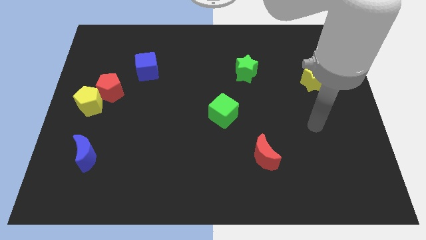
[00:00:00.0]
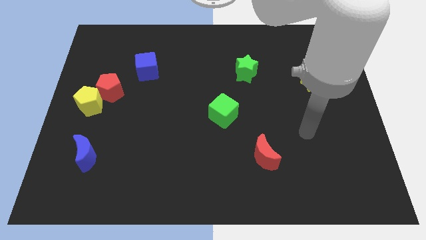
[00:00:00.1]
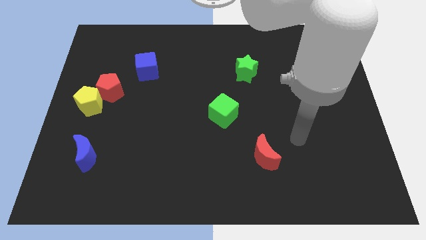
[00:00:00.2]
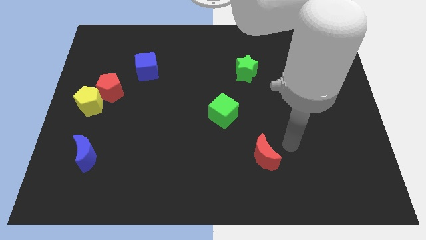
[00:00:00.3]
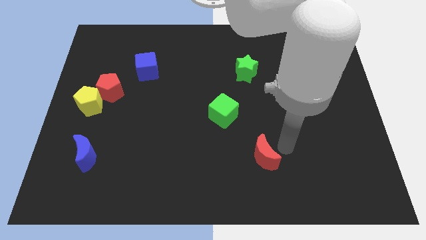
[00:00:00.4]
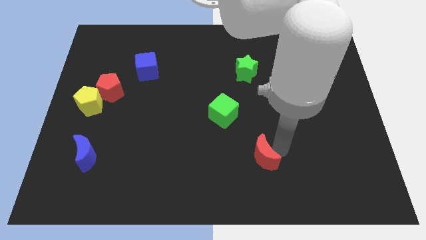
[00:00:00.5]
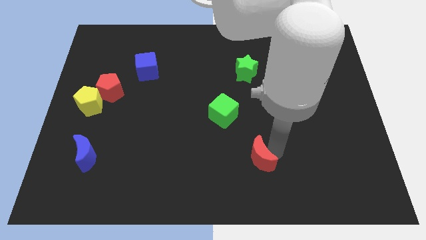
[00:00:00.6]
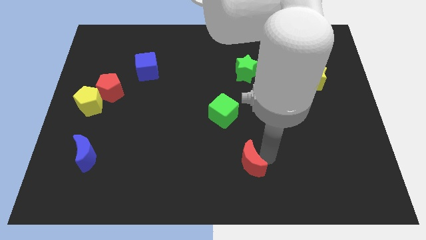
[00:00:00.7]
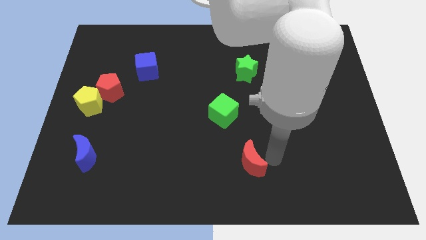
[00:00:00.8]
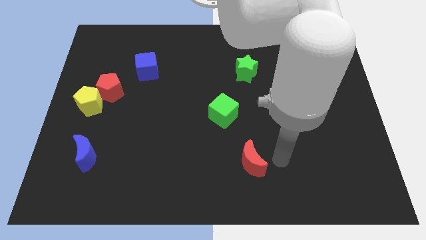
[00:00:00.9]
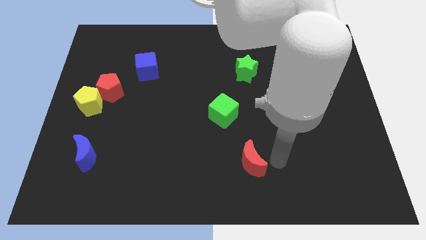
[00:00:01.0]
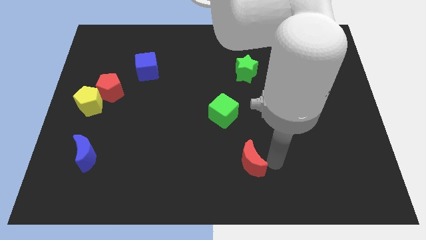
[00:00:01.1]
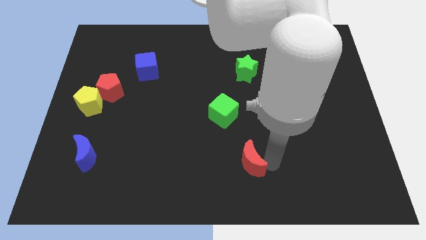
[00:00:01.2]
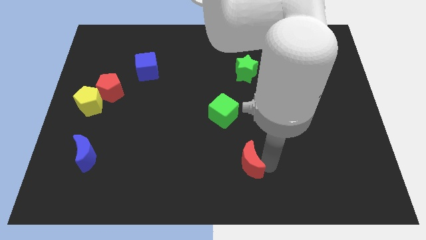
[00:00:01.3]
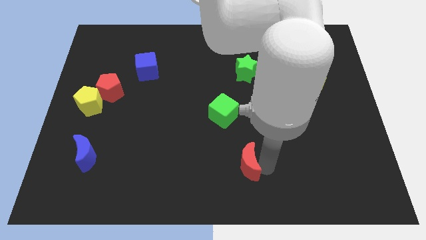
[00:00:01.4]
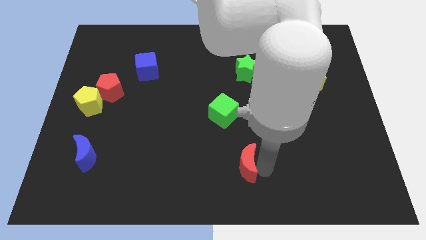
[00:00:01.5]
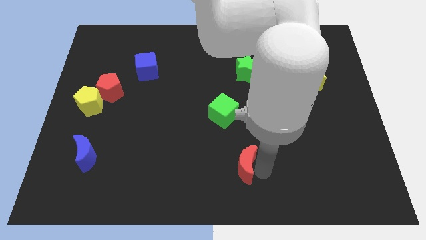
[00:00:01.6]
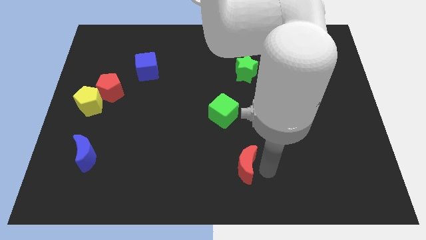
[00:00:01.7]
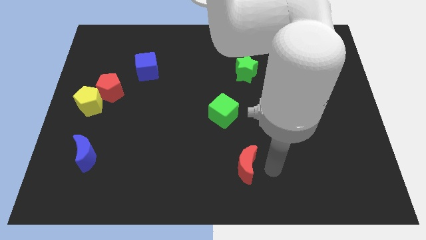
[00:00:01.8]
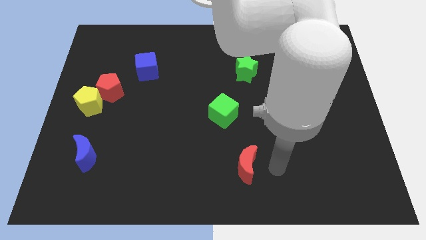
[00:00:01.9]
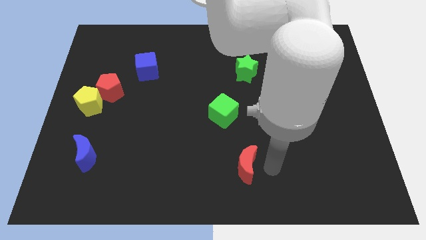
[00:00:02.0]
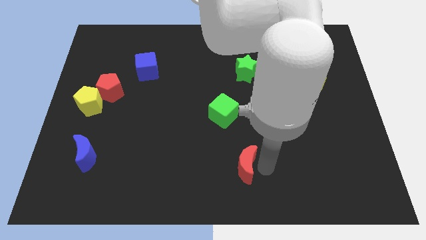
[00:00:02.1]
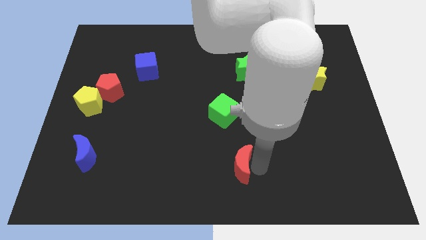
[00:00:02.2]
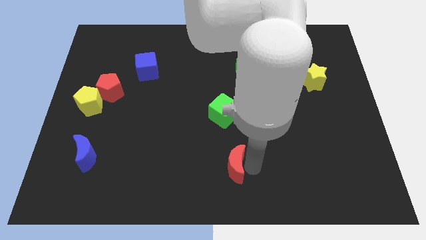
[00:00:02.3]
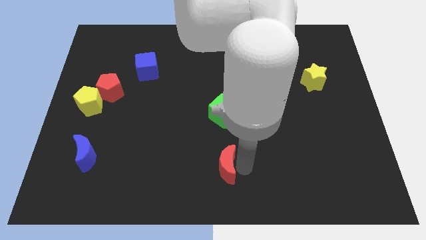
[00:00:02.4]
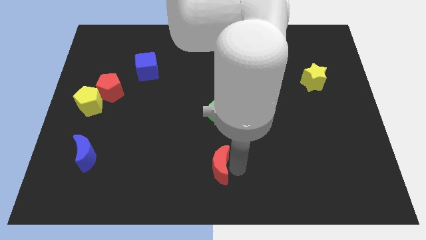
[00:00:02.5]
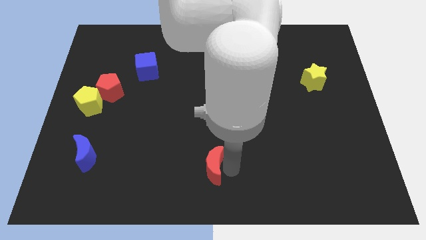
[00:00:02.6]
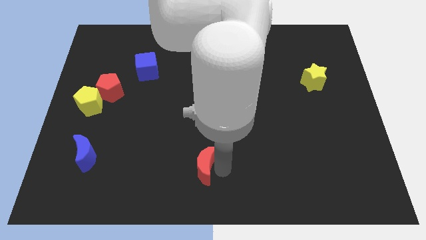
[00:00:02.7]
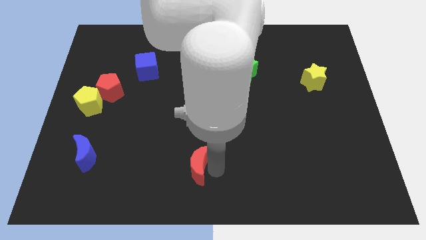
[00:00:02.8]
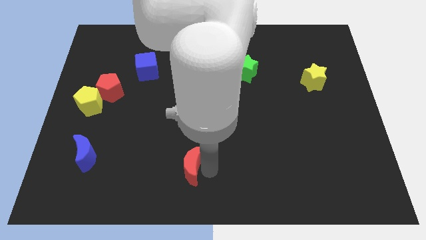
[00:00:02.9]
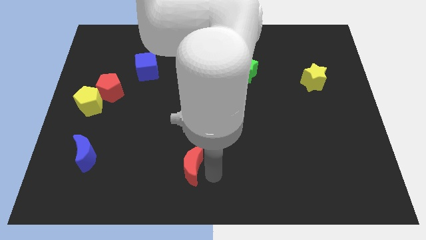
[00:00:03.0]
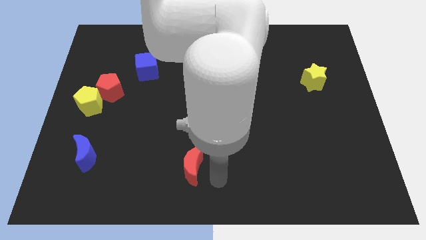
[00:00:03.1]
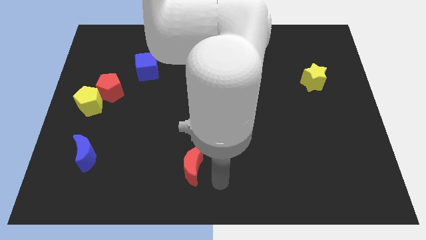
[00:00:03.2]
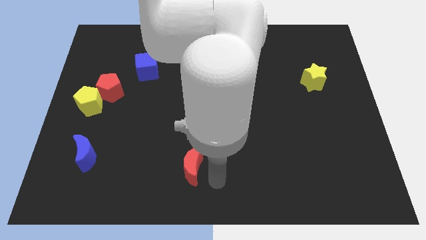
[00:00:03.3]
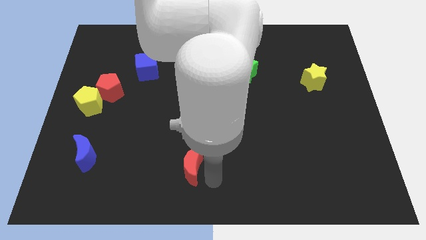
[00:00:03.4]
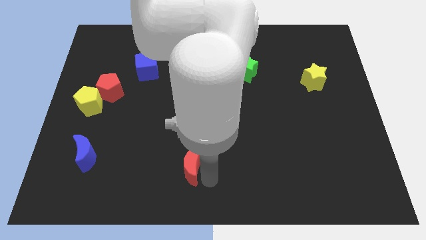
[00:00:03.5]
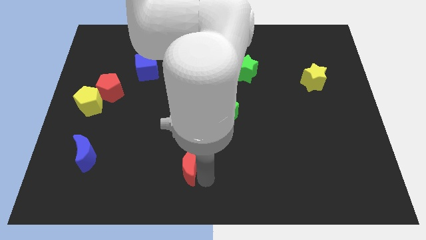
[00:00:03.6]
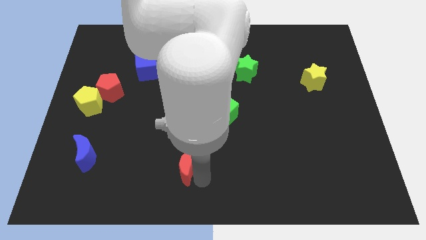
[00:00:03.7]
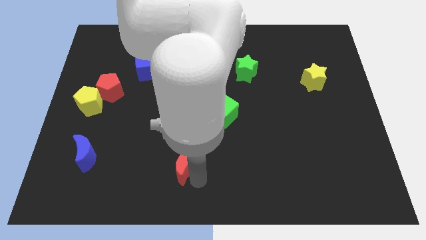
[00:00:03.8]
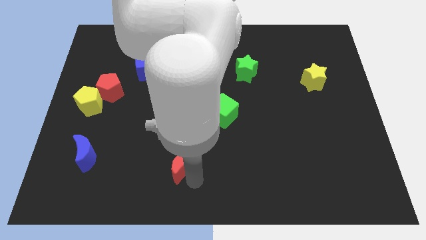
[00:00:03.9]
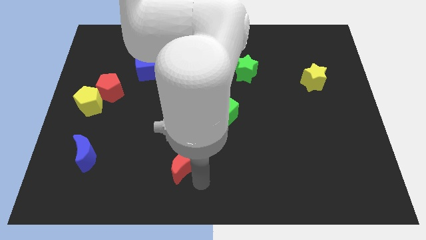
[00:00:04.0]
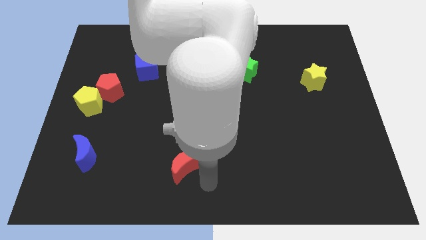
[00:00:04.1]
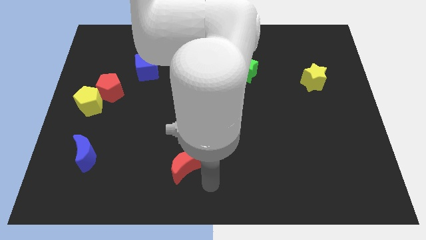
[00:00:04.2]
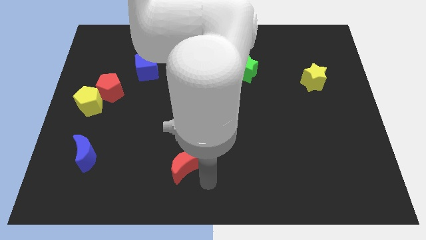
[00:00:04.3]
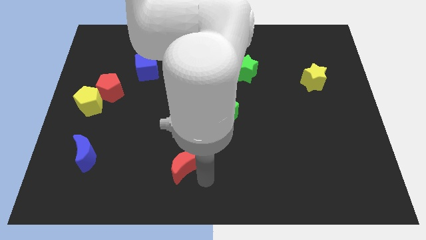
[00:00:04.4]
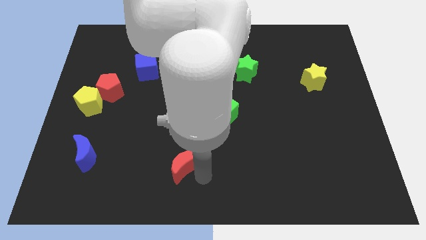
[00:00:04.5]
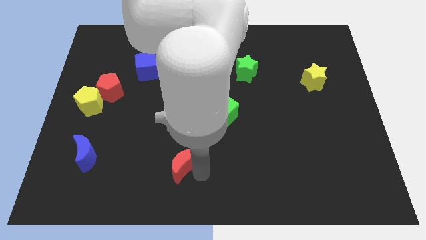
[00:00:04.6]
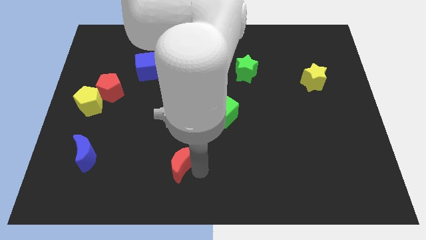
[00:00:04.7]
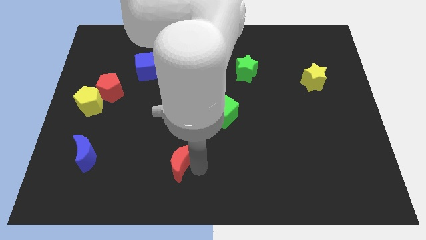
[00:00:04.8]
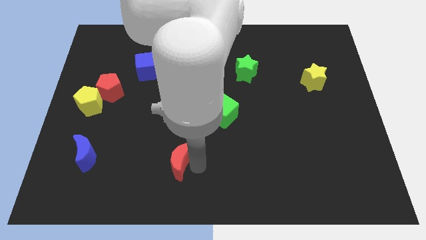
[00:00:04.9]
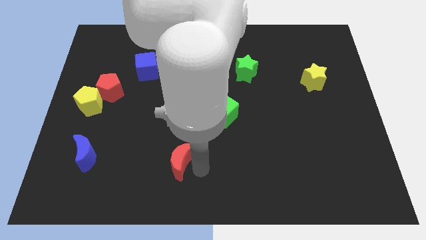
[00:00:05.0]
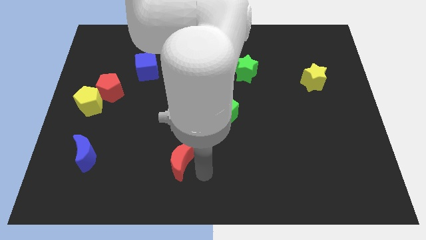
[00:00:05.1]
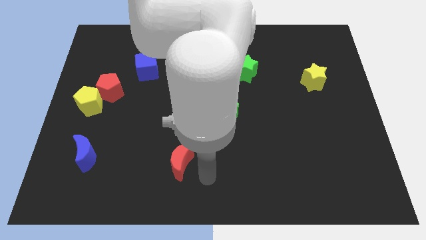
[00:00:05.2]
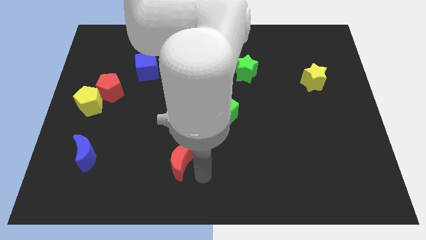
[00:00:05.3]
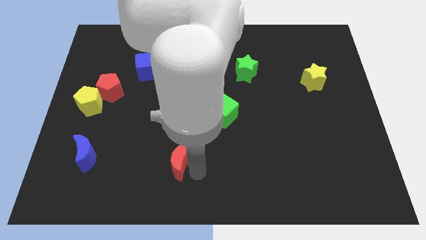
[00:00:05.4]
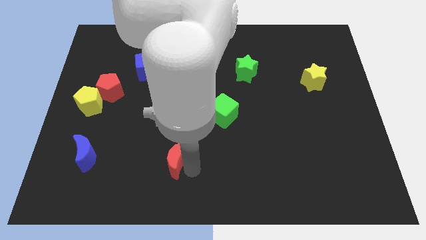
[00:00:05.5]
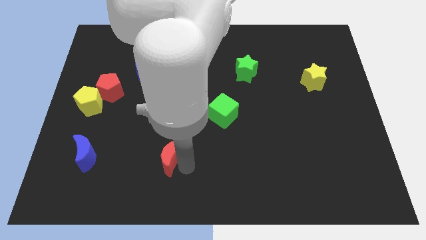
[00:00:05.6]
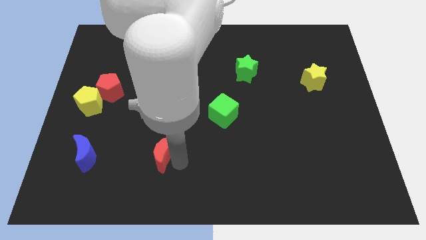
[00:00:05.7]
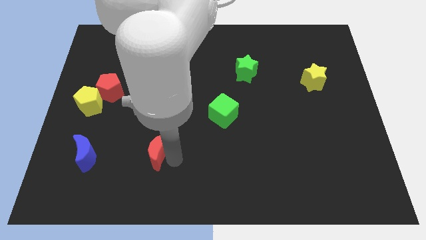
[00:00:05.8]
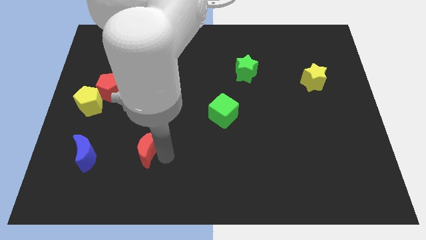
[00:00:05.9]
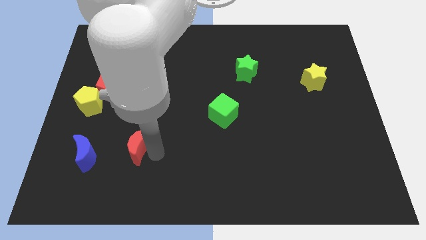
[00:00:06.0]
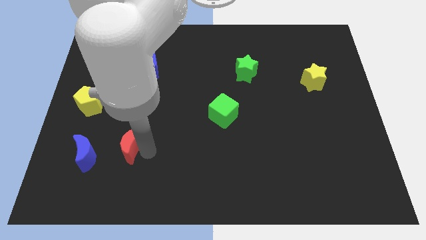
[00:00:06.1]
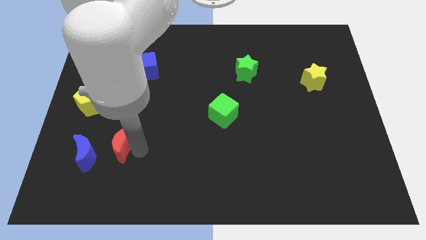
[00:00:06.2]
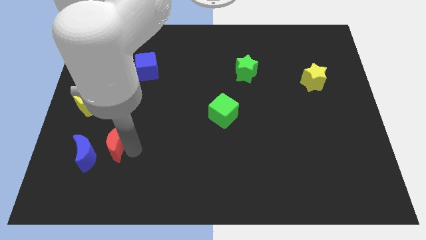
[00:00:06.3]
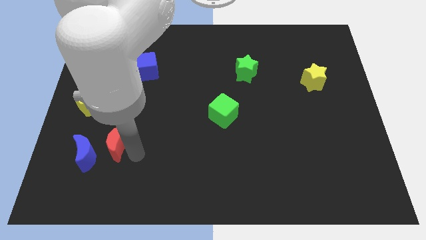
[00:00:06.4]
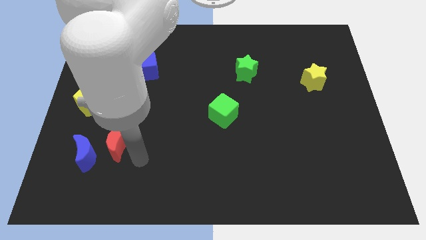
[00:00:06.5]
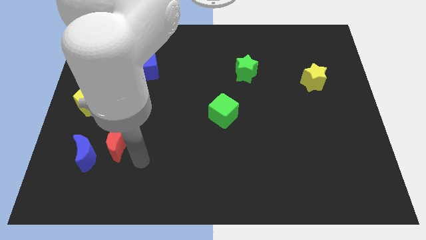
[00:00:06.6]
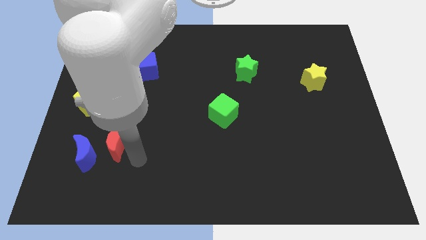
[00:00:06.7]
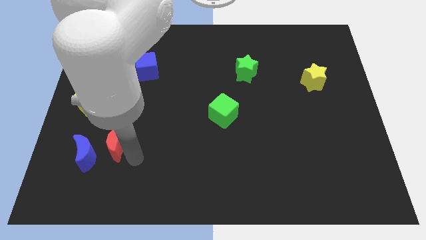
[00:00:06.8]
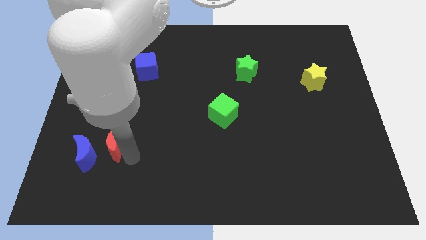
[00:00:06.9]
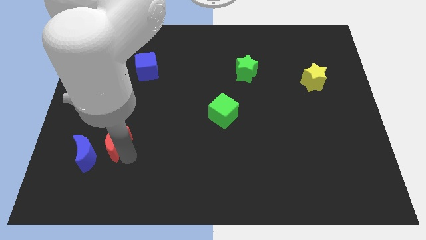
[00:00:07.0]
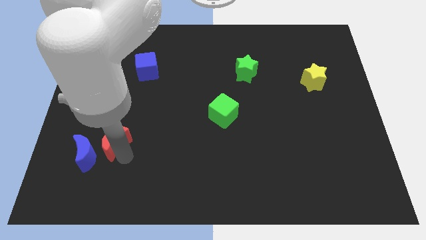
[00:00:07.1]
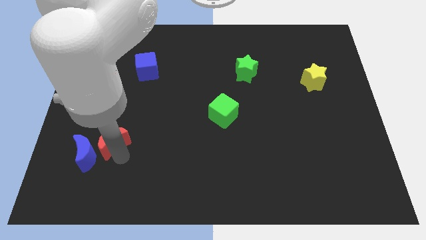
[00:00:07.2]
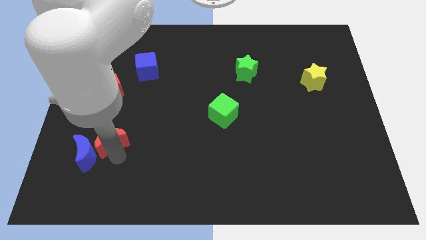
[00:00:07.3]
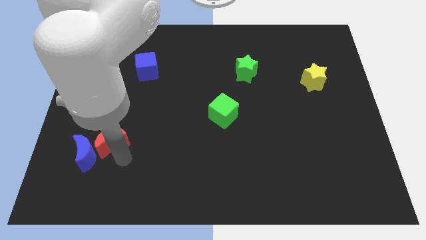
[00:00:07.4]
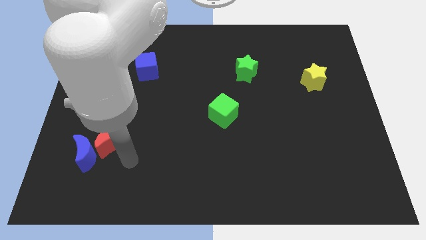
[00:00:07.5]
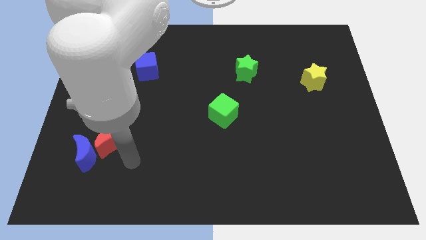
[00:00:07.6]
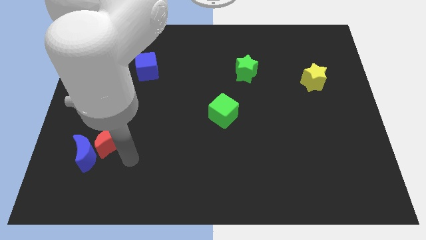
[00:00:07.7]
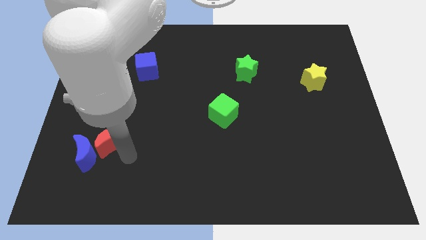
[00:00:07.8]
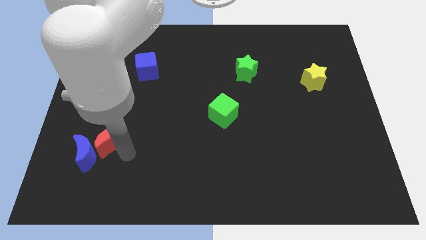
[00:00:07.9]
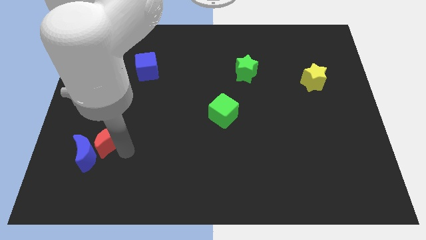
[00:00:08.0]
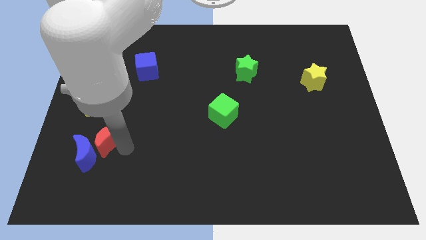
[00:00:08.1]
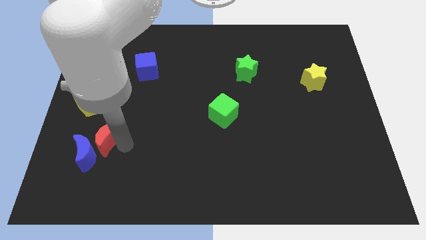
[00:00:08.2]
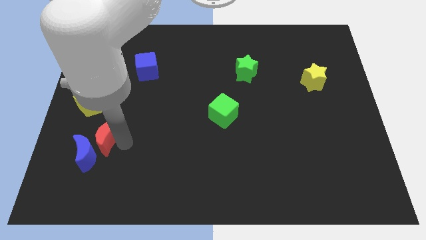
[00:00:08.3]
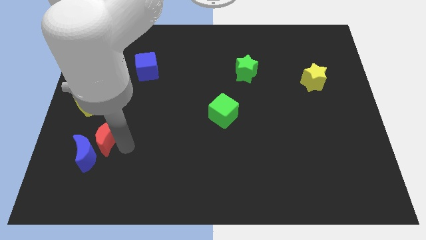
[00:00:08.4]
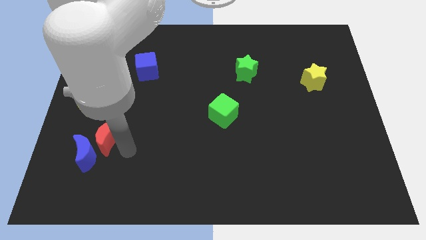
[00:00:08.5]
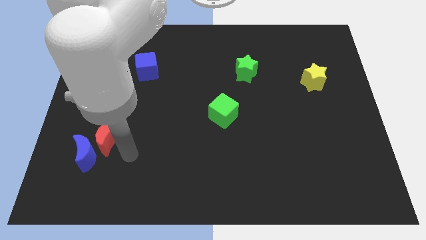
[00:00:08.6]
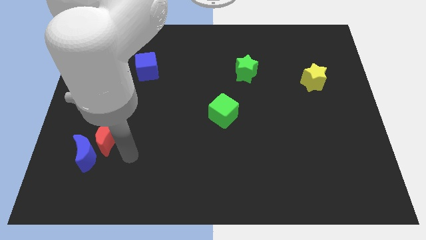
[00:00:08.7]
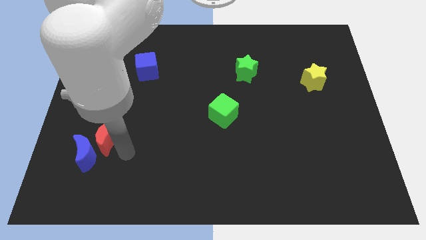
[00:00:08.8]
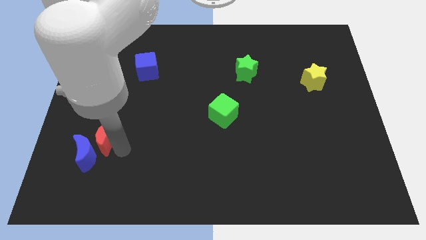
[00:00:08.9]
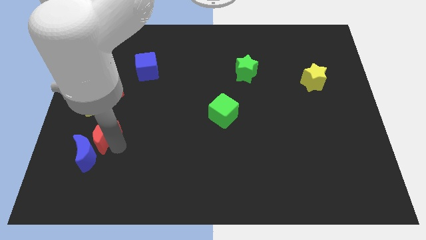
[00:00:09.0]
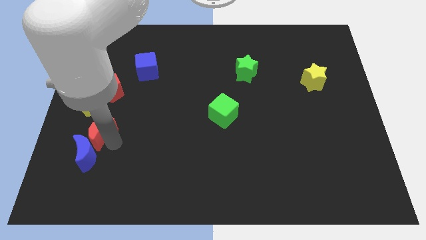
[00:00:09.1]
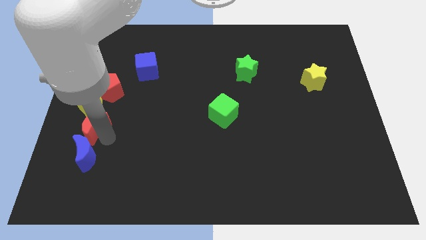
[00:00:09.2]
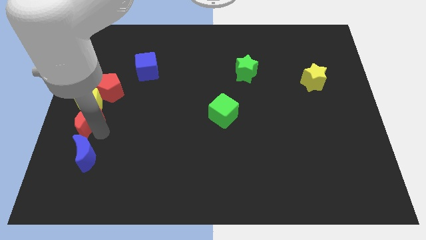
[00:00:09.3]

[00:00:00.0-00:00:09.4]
put the red moon to the center left
